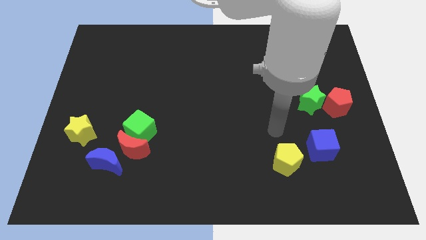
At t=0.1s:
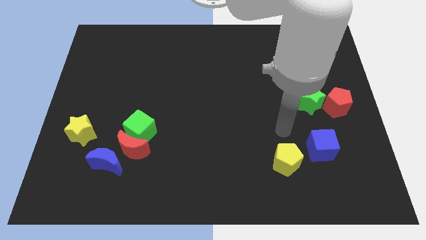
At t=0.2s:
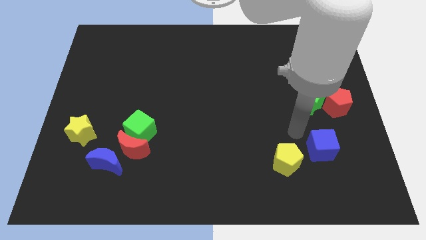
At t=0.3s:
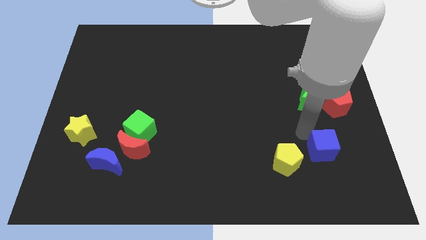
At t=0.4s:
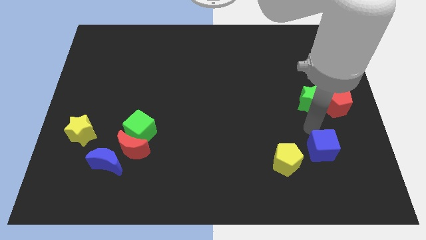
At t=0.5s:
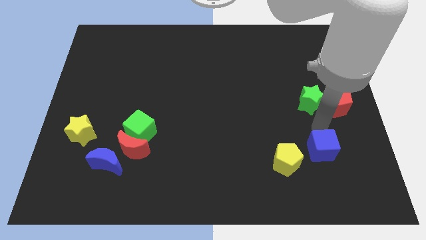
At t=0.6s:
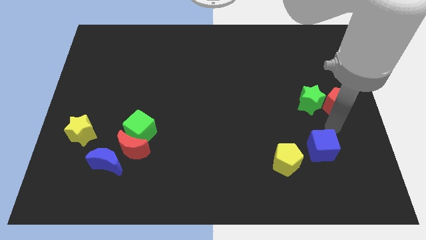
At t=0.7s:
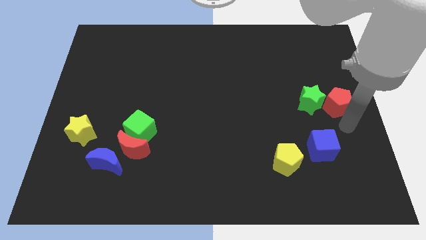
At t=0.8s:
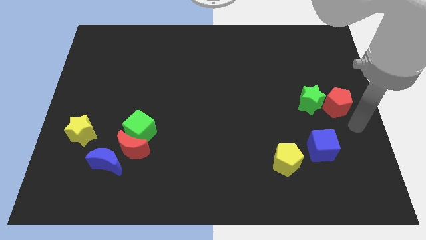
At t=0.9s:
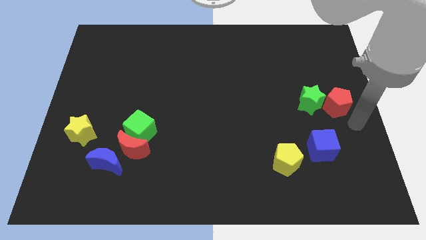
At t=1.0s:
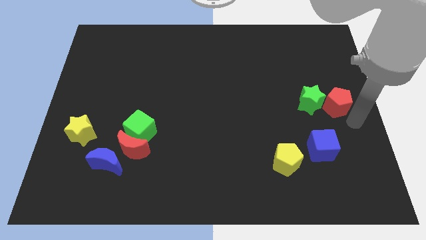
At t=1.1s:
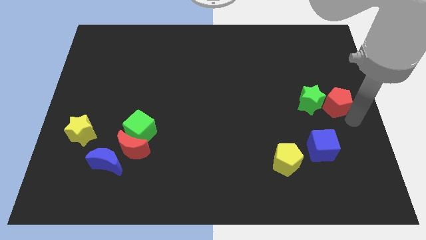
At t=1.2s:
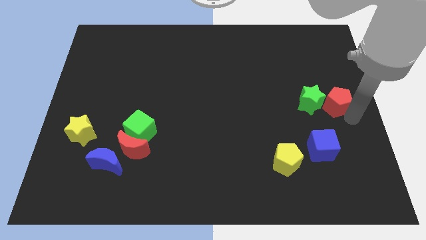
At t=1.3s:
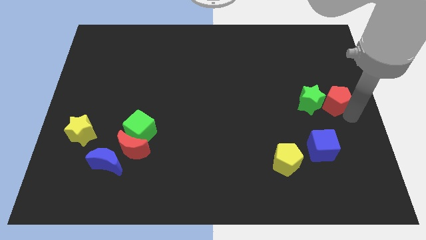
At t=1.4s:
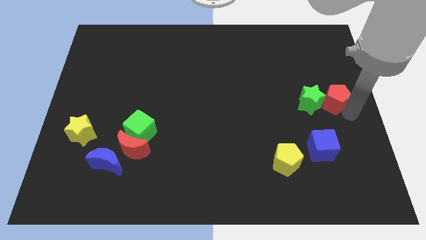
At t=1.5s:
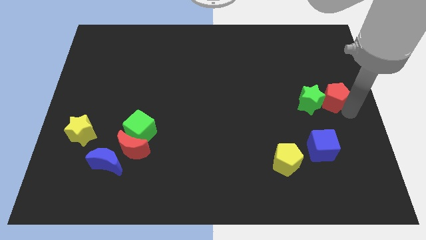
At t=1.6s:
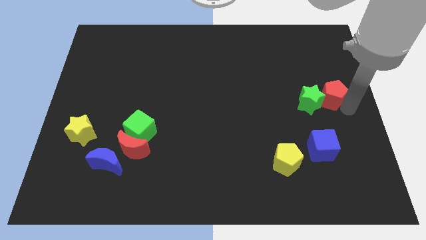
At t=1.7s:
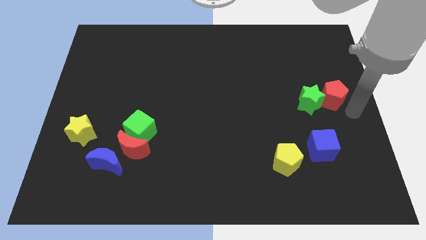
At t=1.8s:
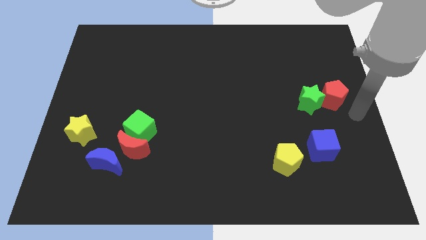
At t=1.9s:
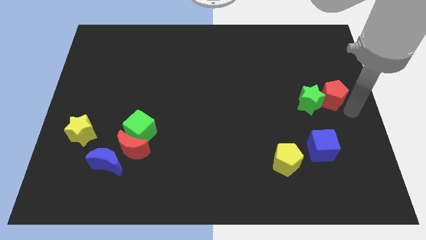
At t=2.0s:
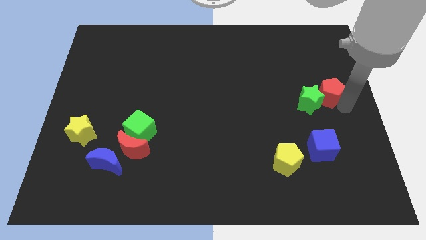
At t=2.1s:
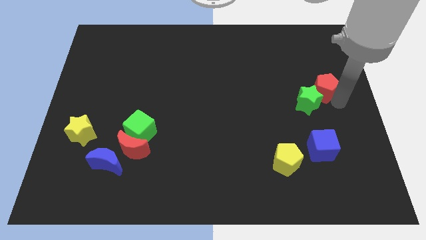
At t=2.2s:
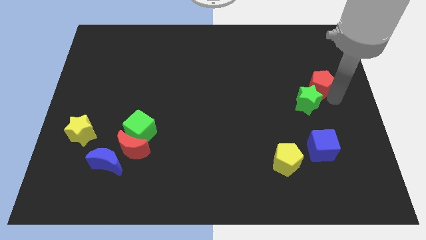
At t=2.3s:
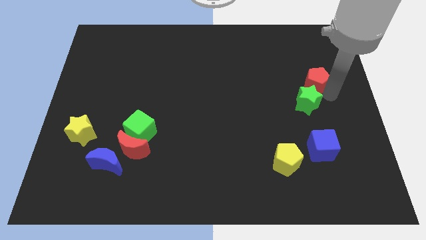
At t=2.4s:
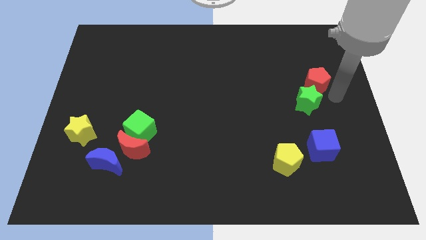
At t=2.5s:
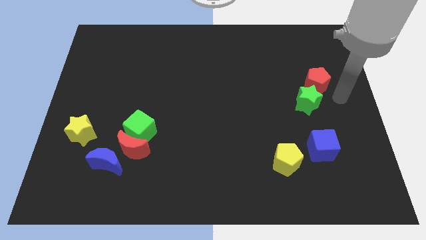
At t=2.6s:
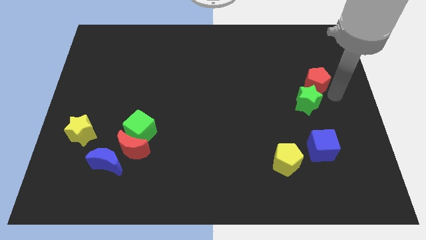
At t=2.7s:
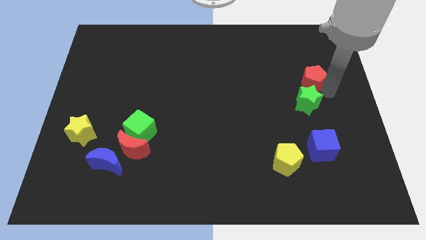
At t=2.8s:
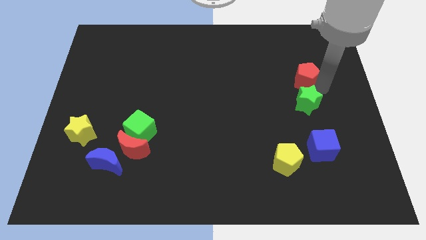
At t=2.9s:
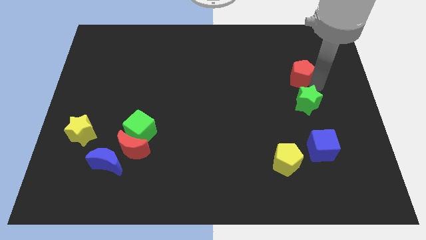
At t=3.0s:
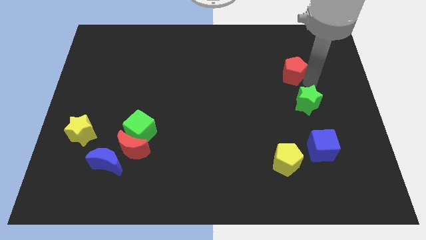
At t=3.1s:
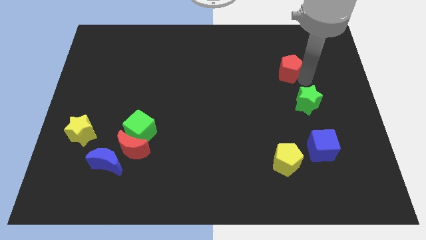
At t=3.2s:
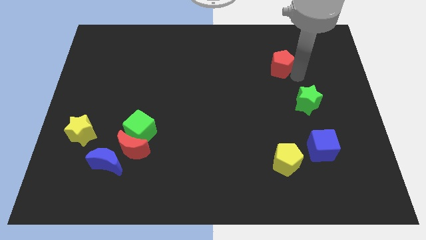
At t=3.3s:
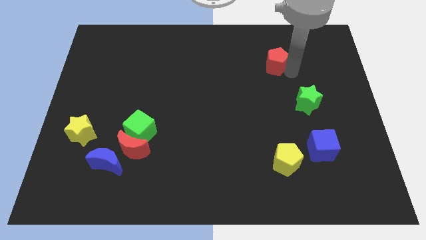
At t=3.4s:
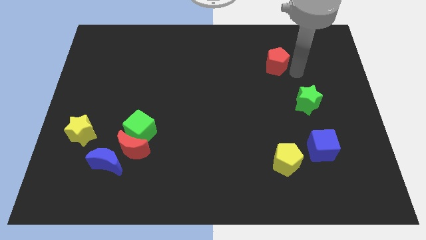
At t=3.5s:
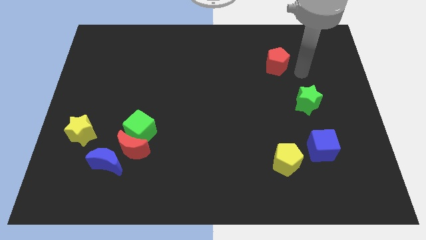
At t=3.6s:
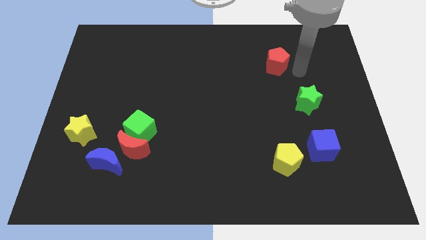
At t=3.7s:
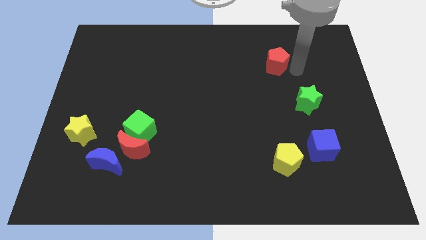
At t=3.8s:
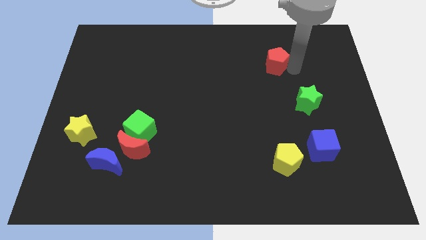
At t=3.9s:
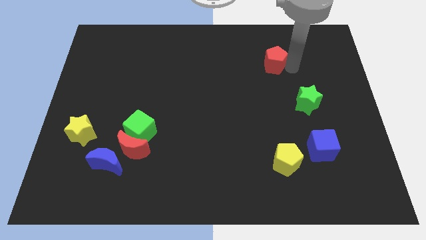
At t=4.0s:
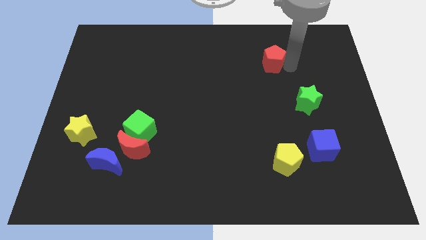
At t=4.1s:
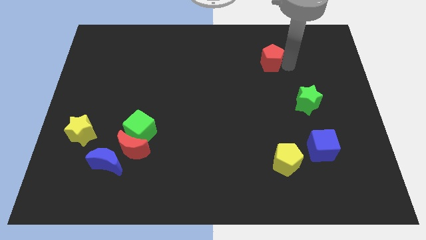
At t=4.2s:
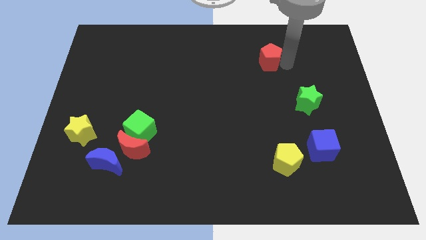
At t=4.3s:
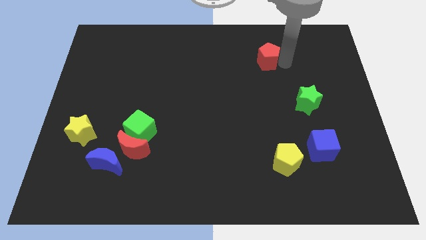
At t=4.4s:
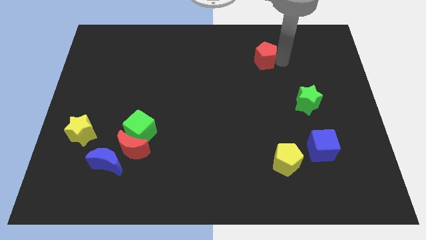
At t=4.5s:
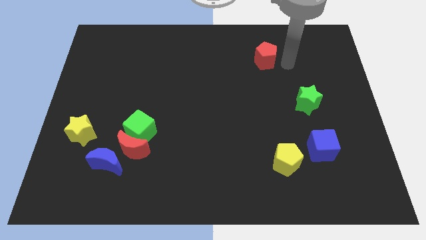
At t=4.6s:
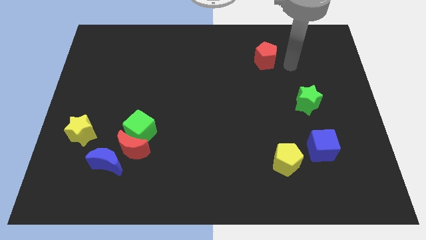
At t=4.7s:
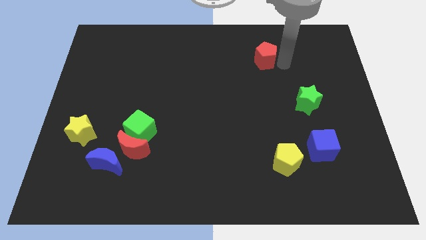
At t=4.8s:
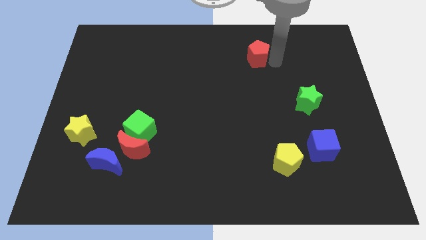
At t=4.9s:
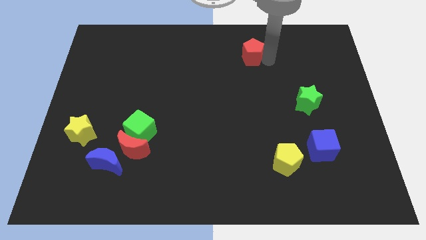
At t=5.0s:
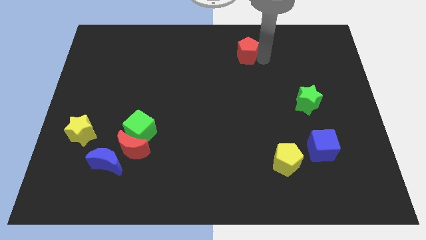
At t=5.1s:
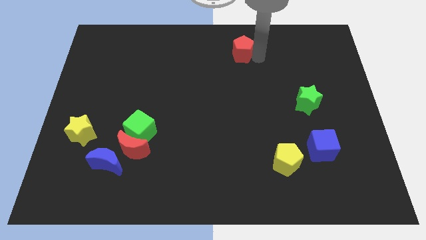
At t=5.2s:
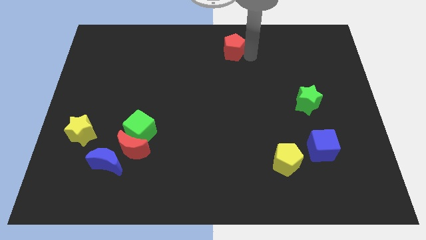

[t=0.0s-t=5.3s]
slide the red pentagon to the top

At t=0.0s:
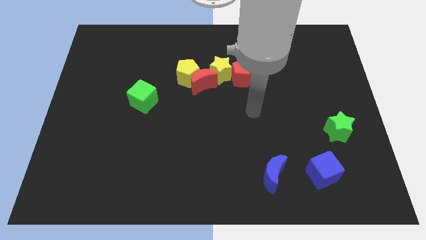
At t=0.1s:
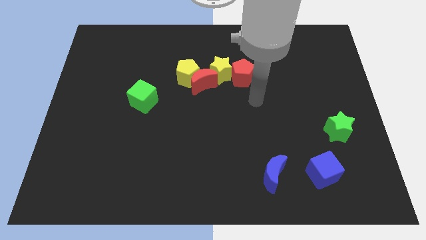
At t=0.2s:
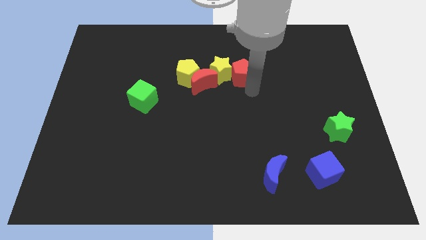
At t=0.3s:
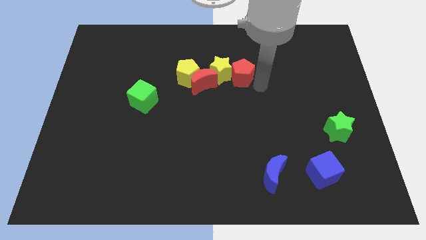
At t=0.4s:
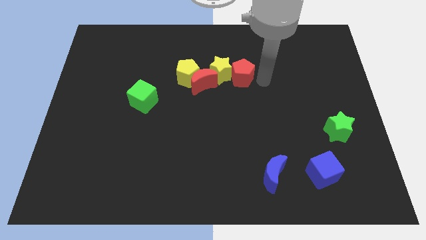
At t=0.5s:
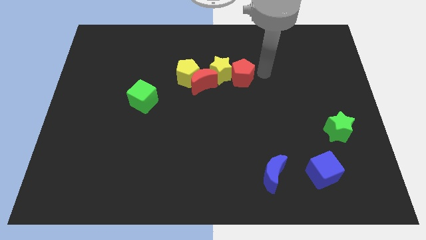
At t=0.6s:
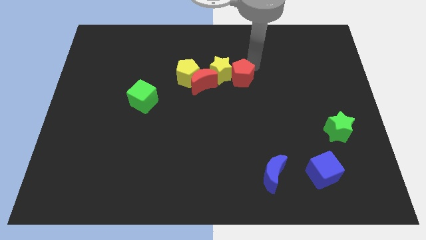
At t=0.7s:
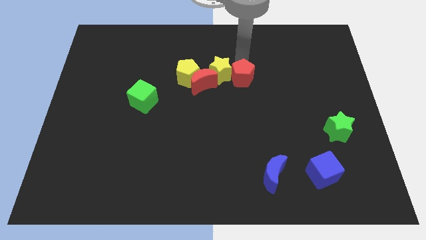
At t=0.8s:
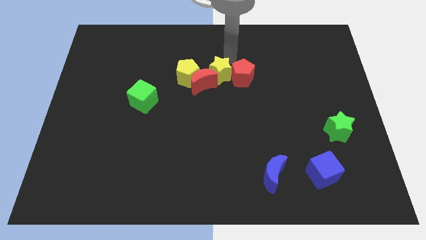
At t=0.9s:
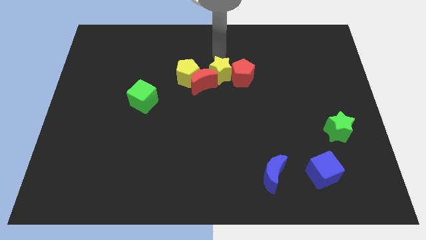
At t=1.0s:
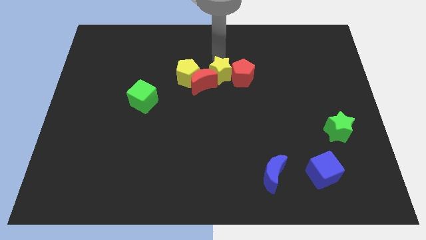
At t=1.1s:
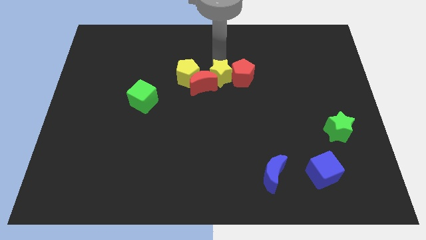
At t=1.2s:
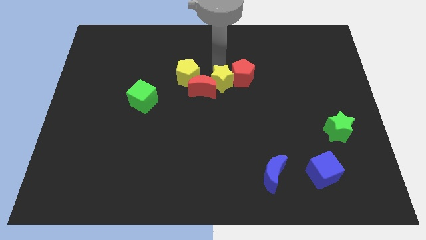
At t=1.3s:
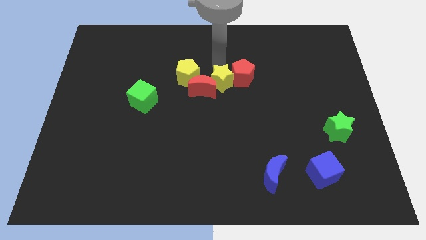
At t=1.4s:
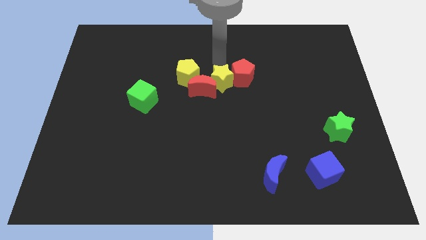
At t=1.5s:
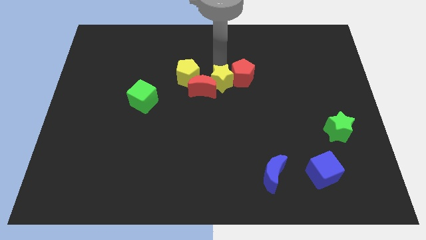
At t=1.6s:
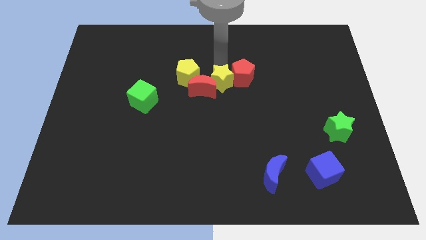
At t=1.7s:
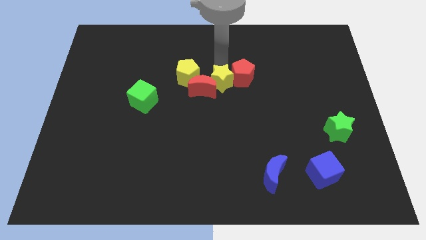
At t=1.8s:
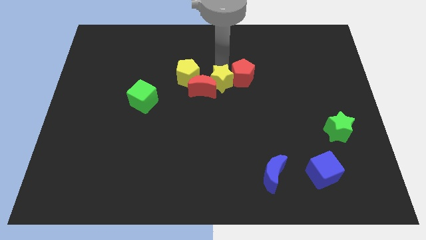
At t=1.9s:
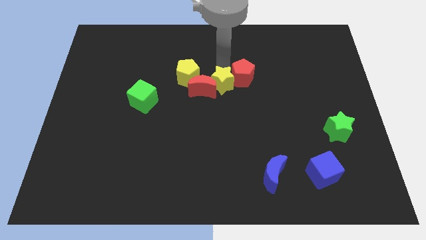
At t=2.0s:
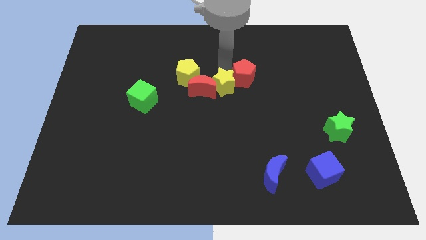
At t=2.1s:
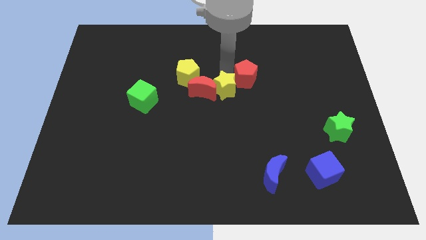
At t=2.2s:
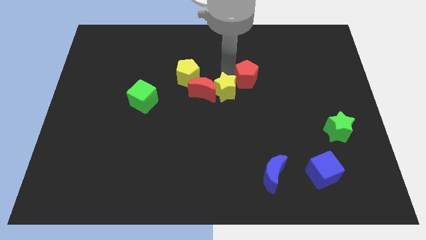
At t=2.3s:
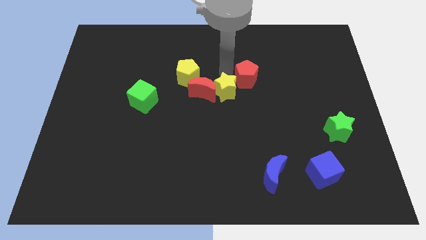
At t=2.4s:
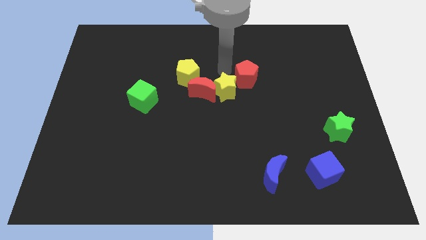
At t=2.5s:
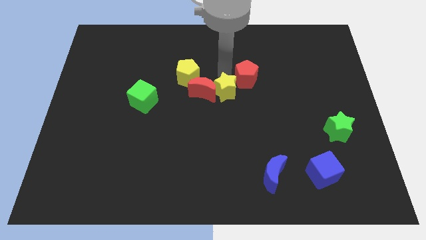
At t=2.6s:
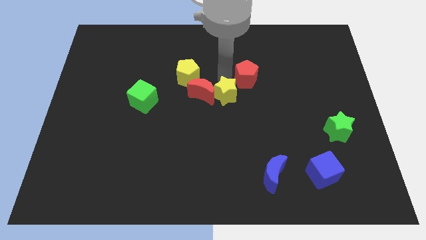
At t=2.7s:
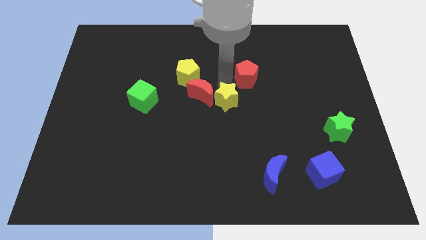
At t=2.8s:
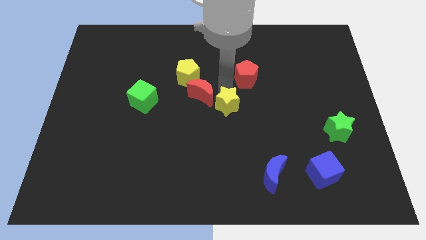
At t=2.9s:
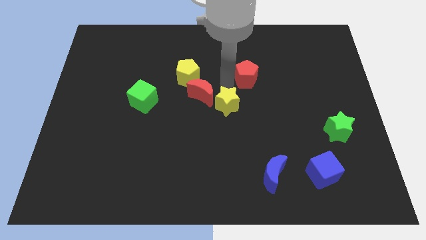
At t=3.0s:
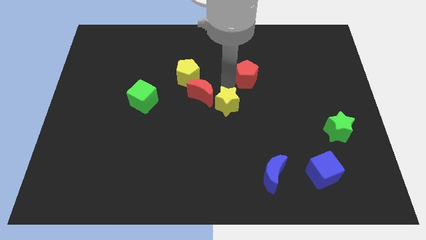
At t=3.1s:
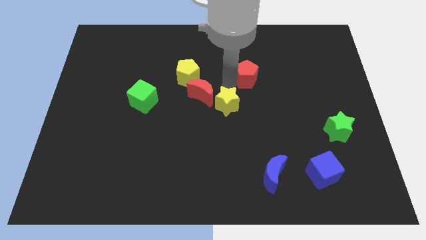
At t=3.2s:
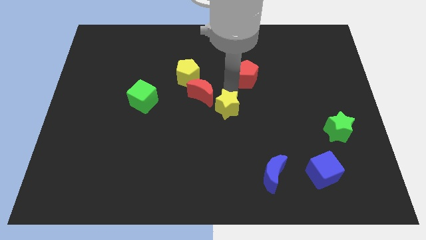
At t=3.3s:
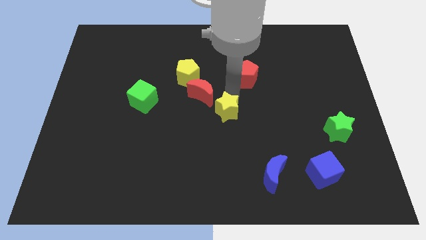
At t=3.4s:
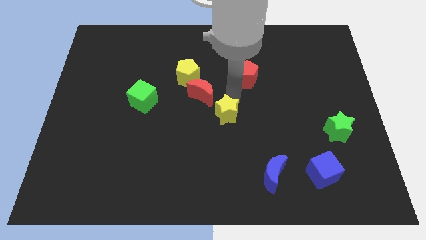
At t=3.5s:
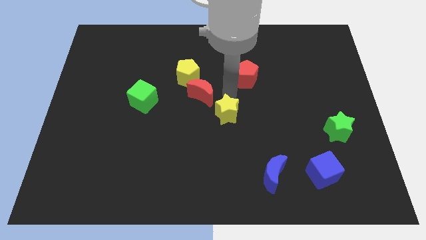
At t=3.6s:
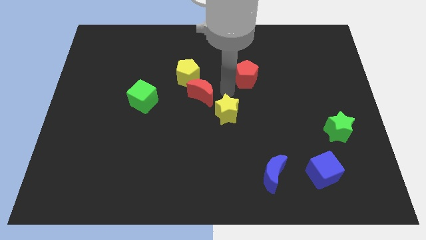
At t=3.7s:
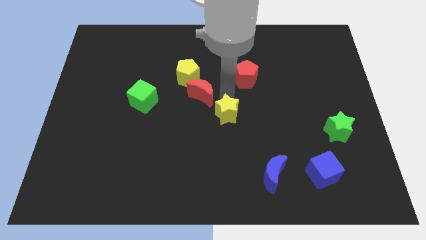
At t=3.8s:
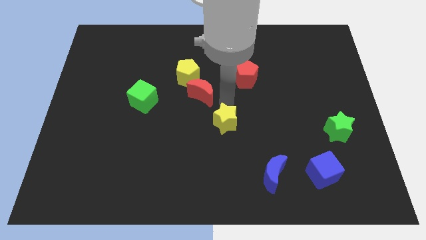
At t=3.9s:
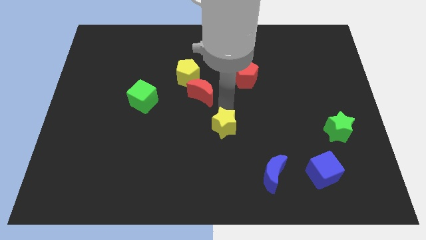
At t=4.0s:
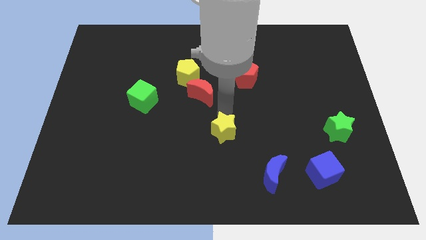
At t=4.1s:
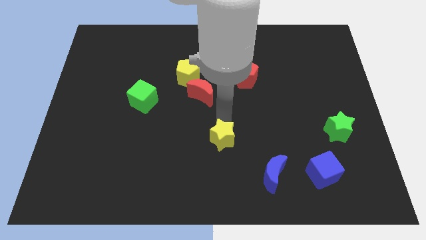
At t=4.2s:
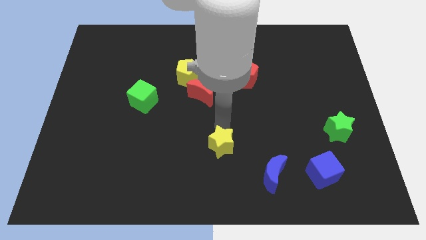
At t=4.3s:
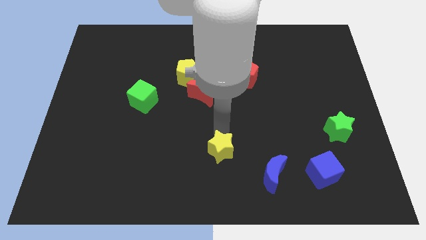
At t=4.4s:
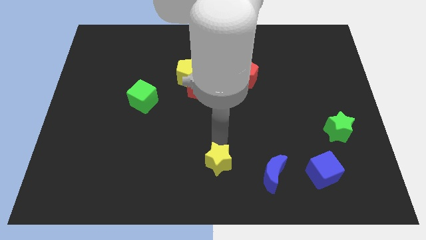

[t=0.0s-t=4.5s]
push the yellow star to the bottom
